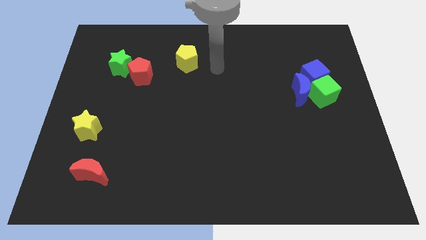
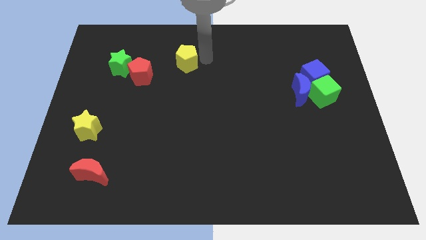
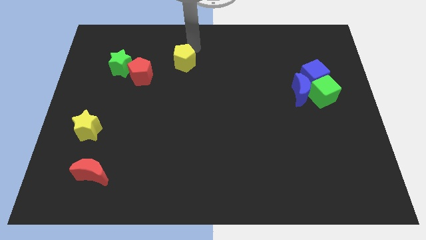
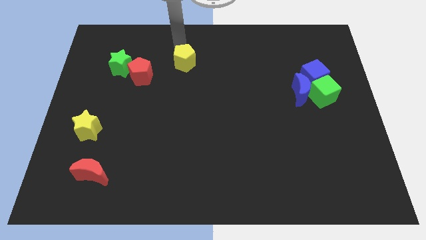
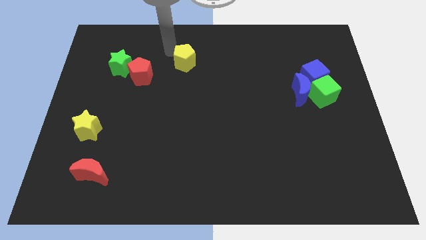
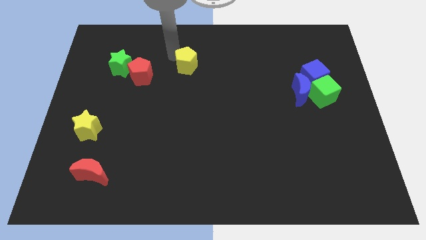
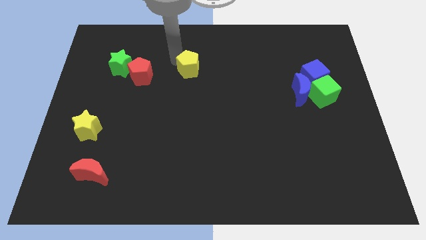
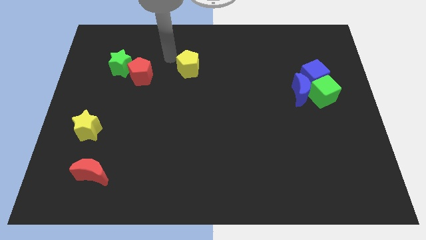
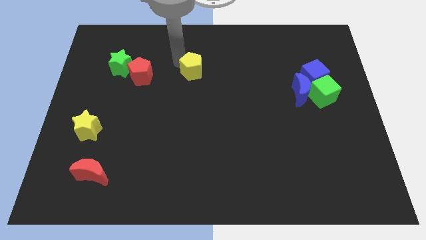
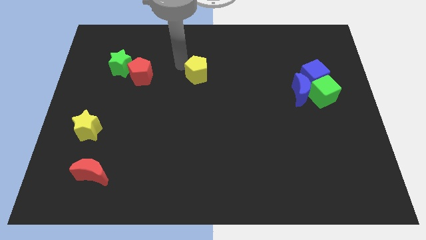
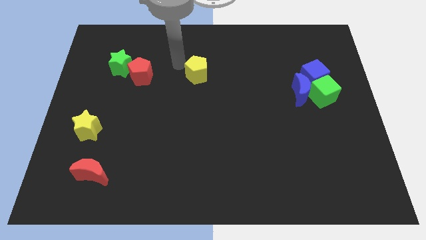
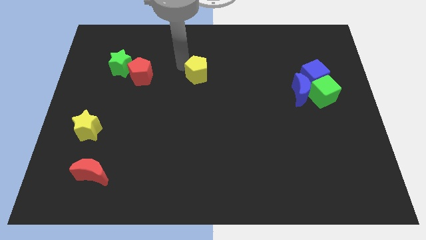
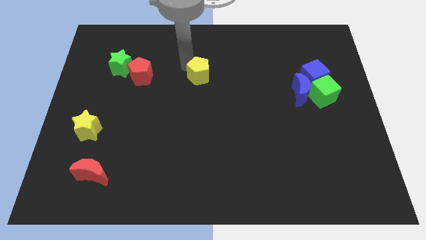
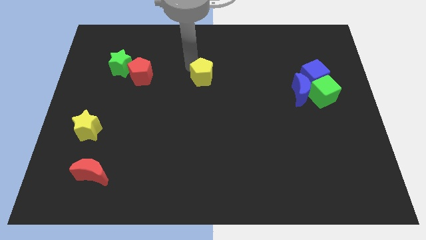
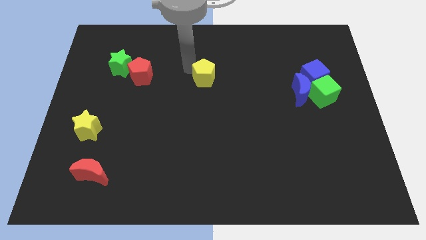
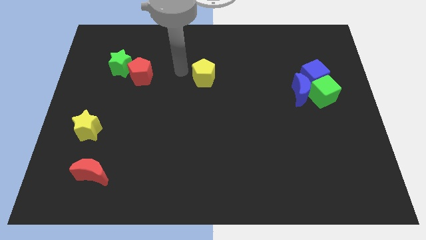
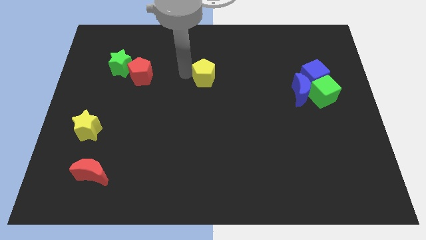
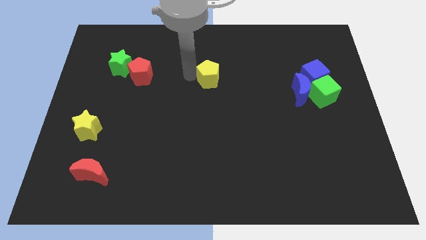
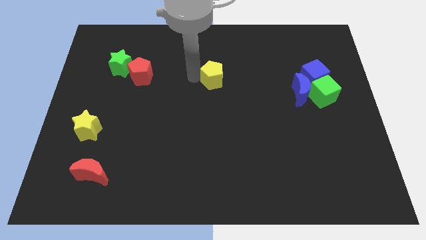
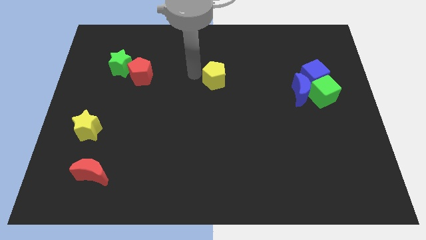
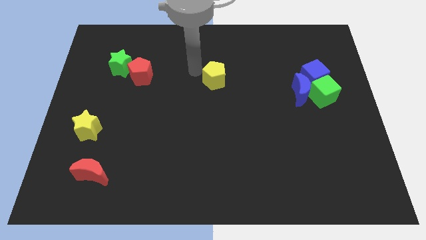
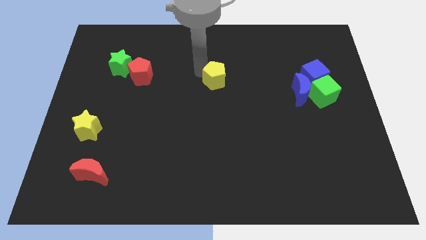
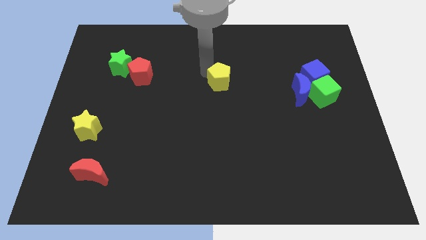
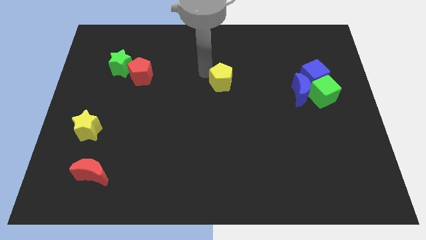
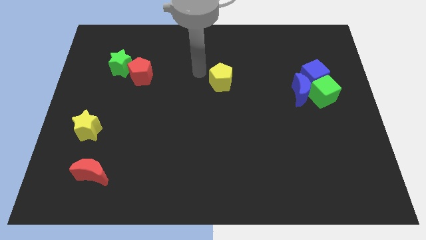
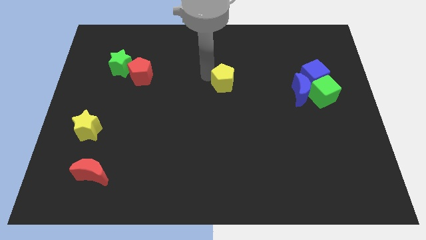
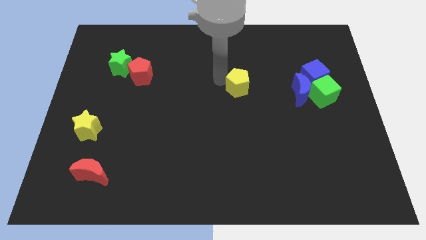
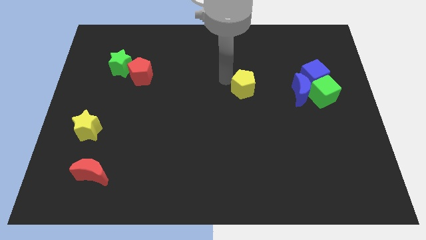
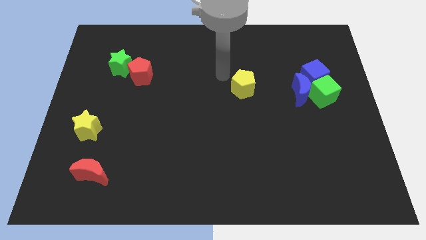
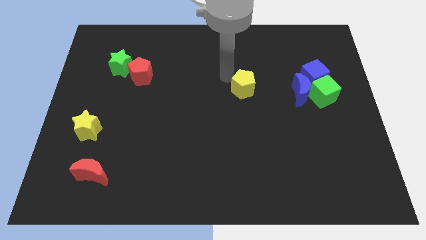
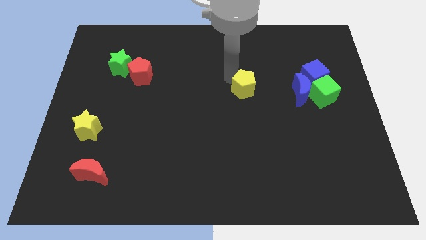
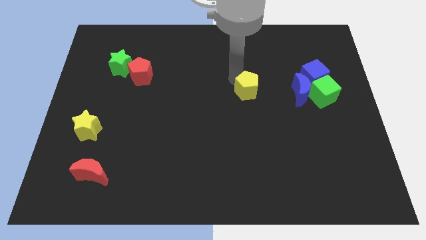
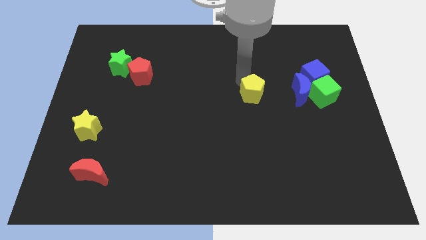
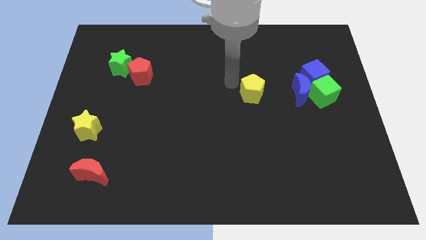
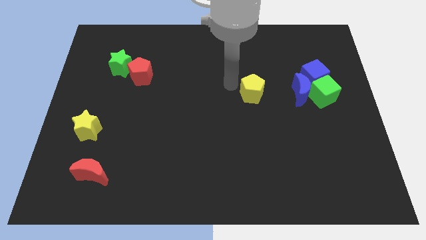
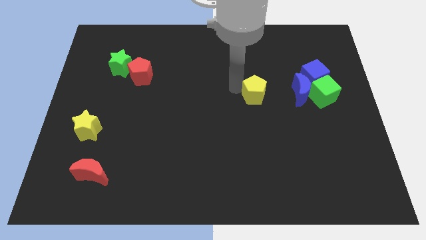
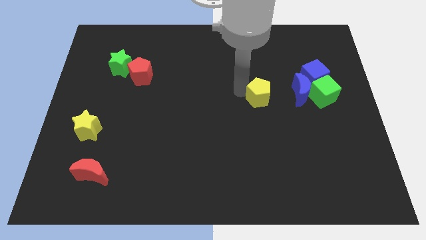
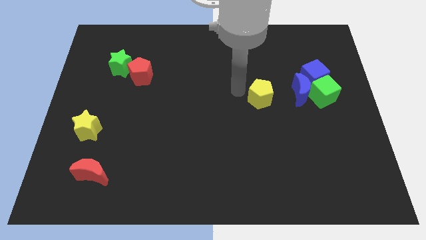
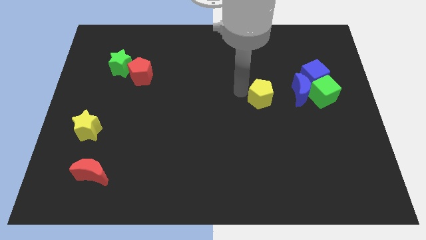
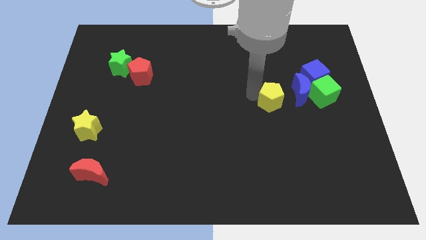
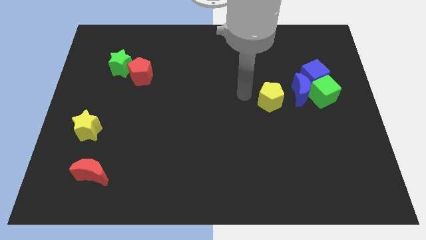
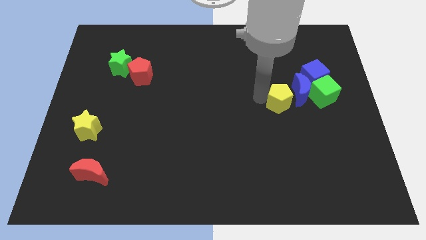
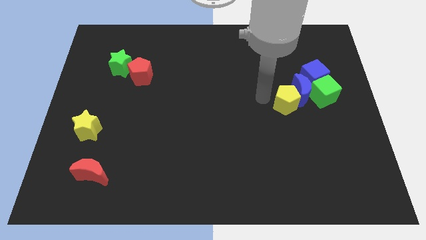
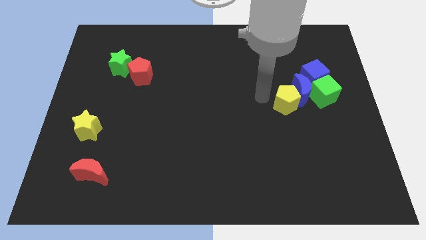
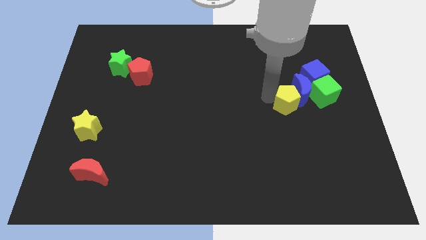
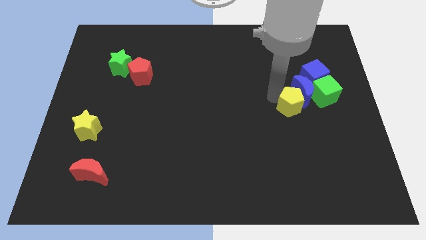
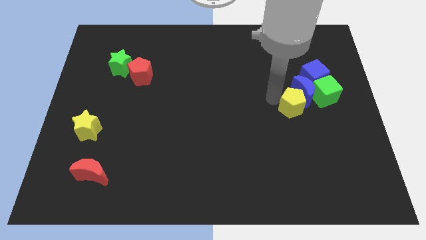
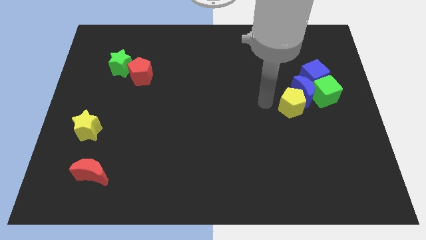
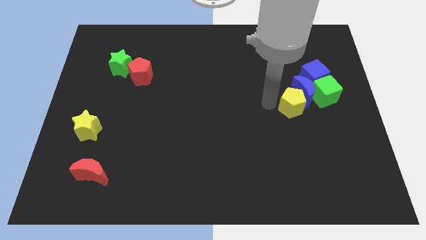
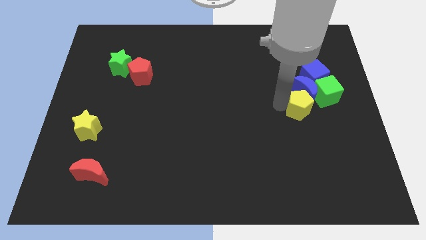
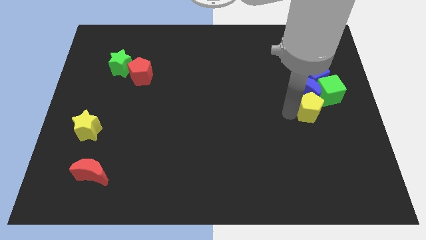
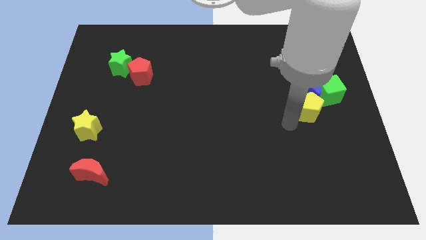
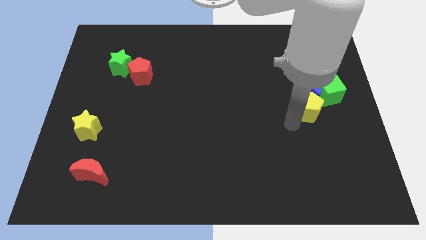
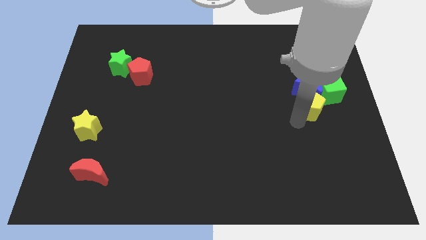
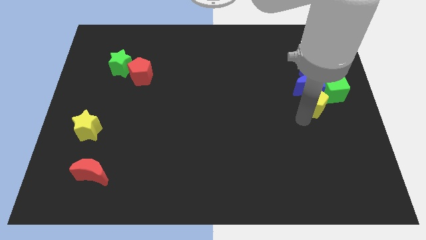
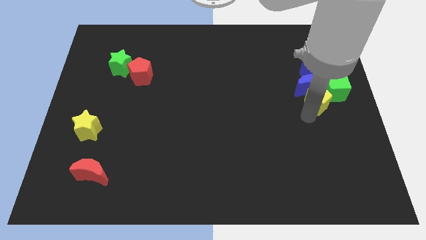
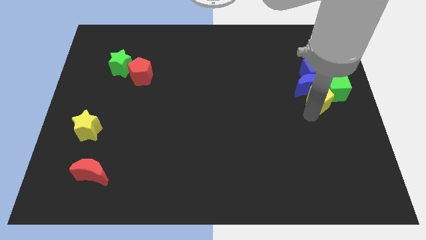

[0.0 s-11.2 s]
put the yellow pentagon next to the green cube

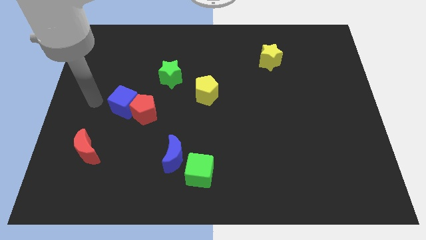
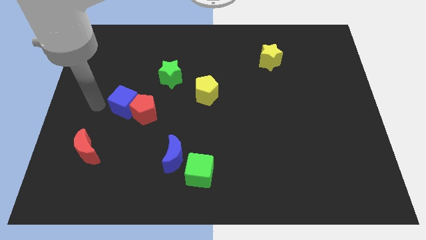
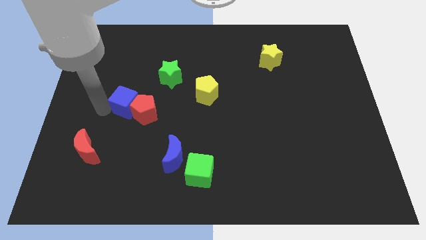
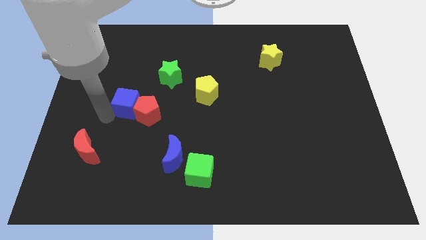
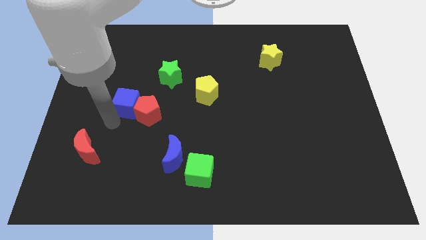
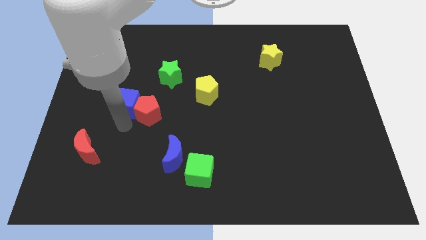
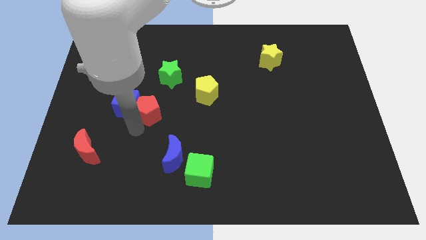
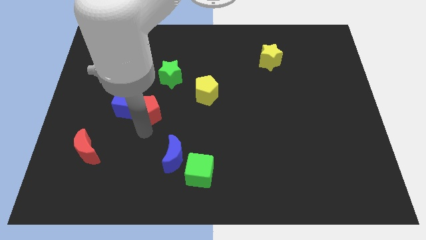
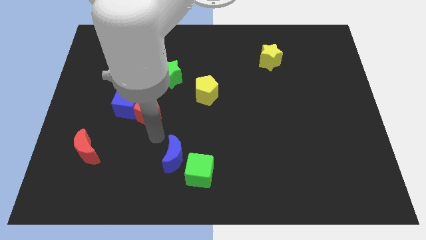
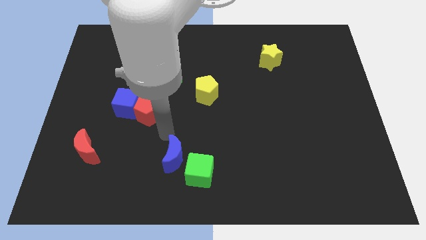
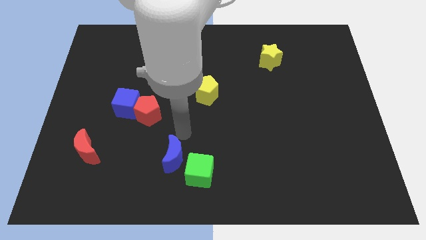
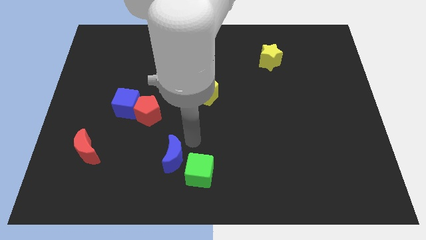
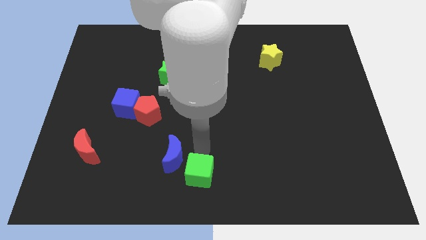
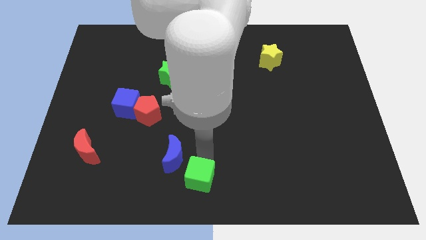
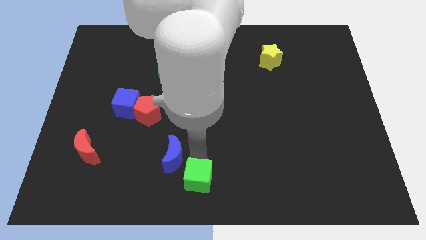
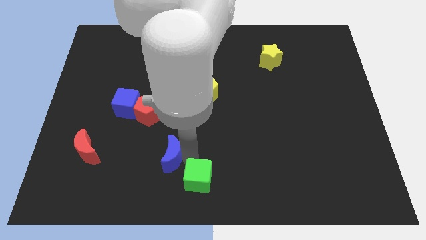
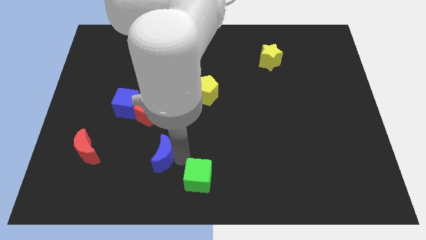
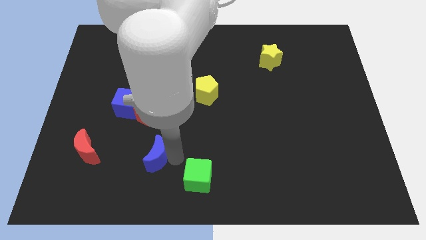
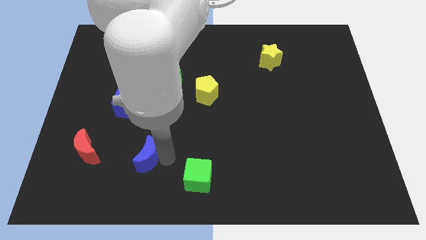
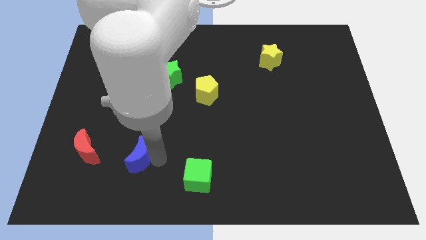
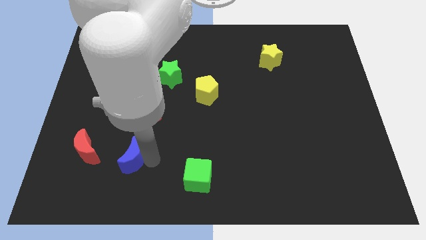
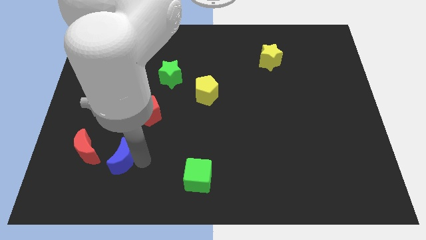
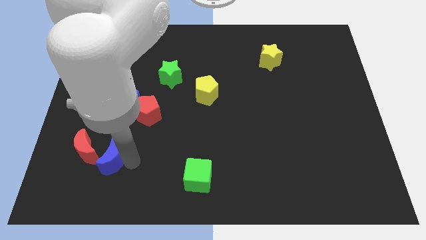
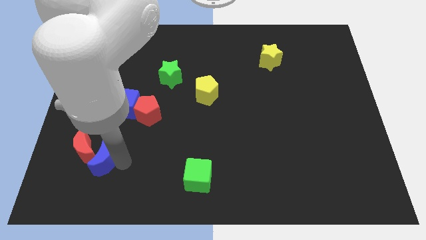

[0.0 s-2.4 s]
move the blue moon close to the red moon
